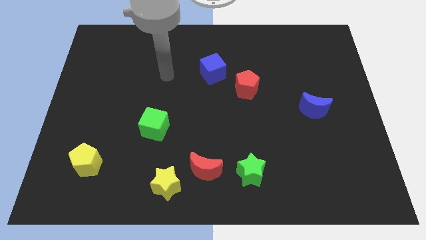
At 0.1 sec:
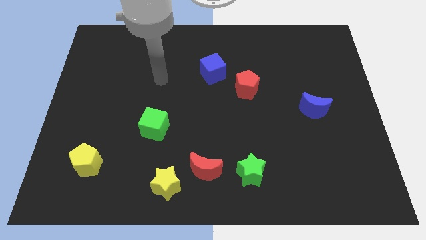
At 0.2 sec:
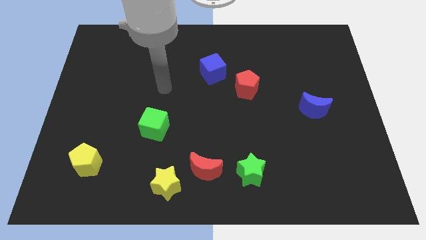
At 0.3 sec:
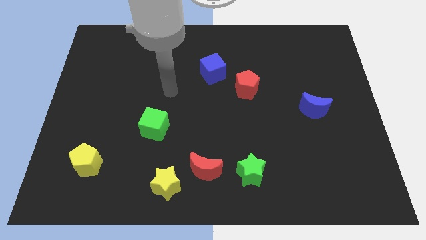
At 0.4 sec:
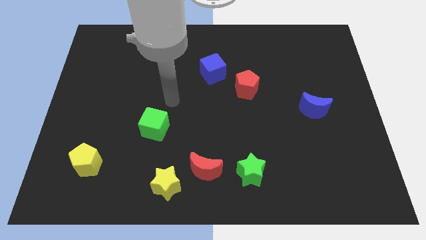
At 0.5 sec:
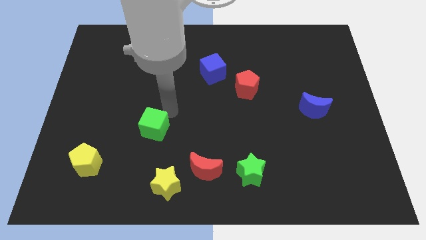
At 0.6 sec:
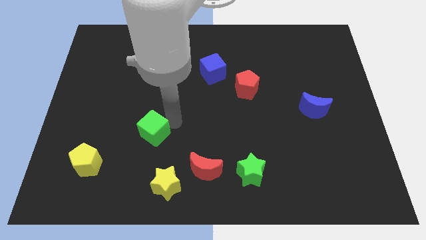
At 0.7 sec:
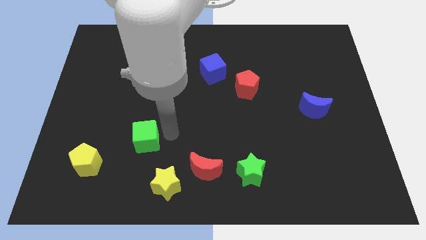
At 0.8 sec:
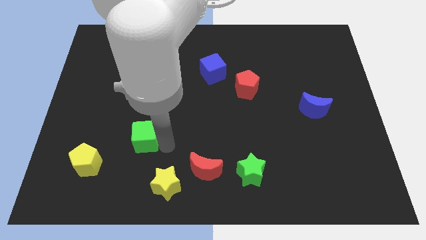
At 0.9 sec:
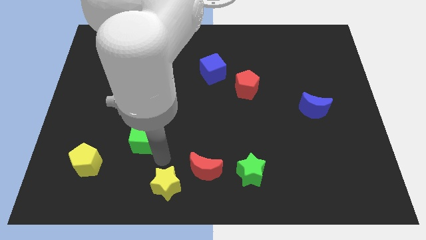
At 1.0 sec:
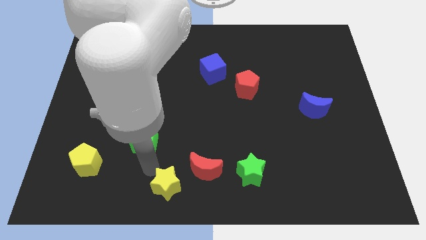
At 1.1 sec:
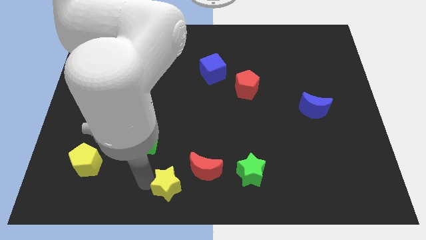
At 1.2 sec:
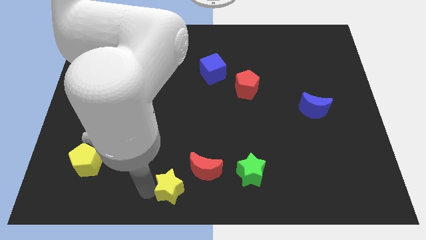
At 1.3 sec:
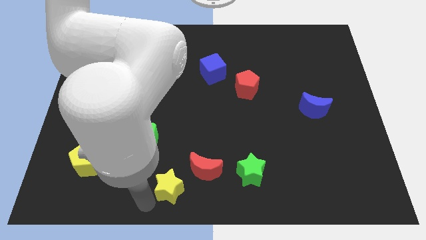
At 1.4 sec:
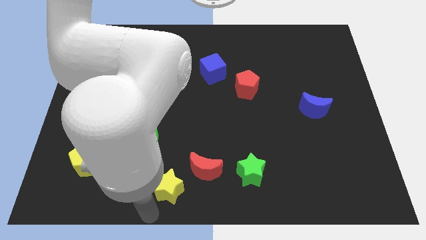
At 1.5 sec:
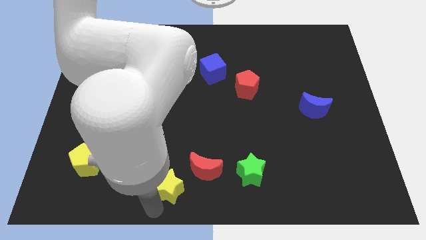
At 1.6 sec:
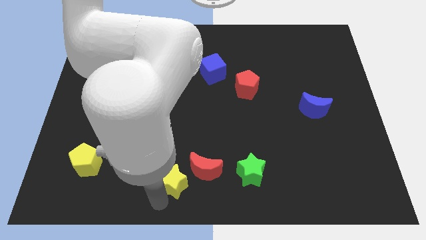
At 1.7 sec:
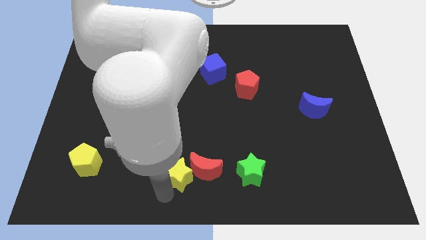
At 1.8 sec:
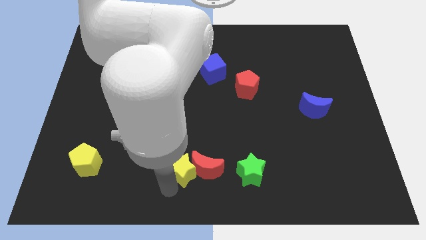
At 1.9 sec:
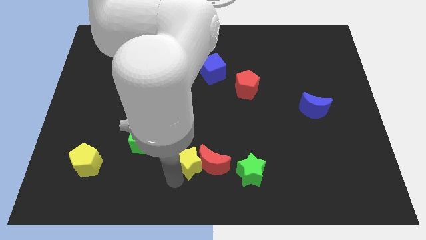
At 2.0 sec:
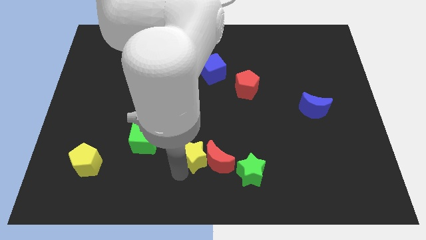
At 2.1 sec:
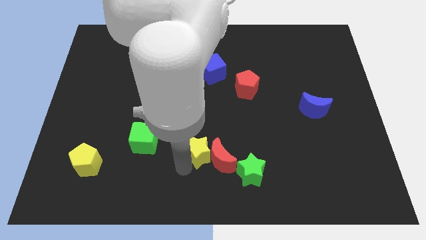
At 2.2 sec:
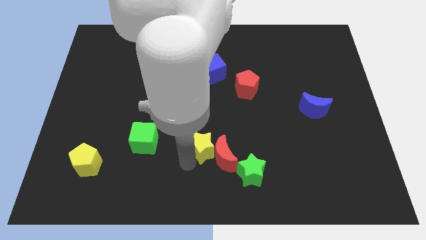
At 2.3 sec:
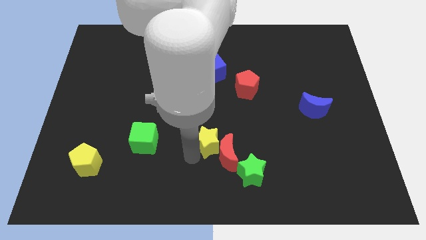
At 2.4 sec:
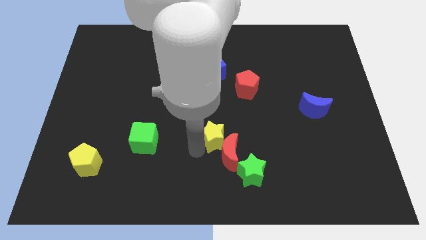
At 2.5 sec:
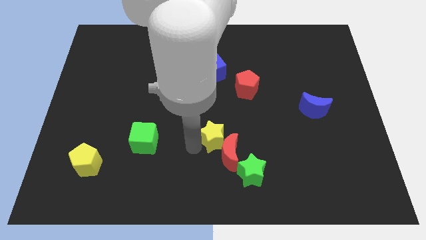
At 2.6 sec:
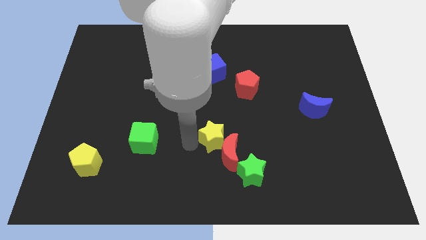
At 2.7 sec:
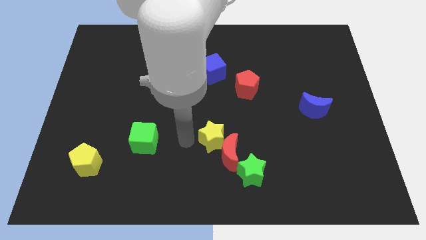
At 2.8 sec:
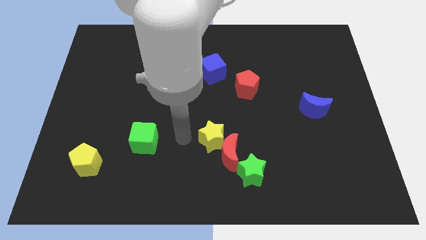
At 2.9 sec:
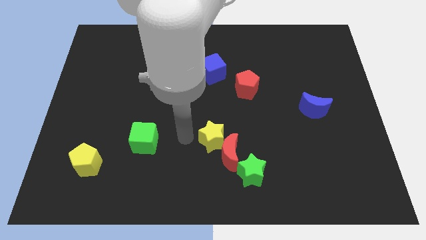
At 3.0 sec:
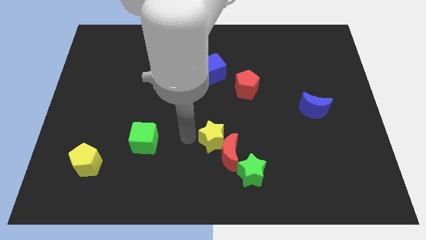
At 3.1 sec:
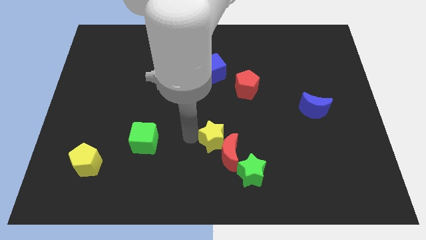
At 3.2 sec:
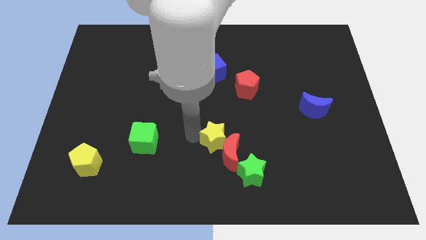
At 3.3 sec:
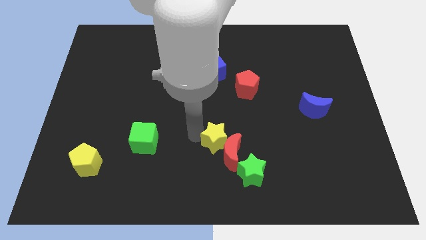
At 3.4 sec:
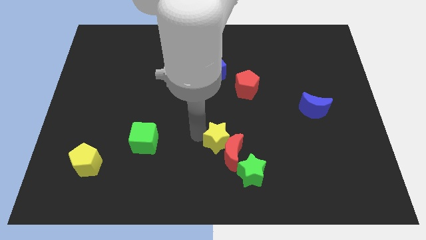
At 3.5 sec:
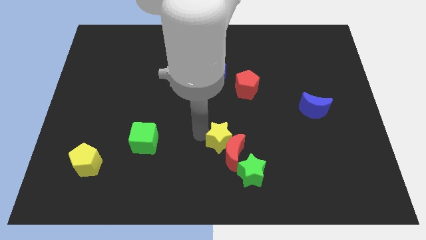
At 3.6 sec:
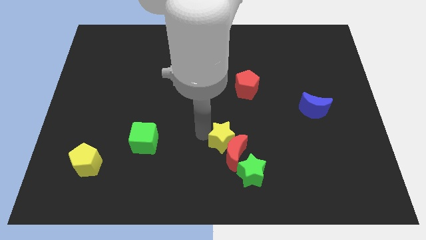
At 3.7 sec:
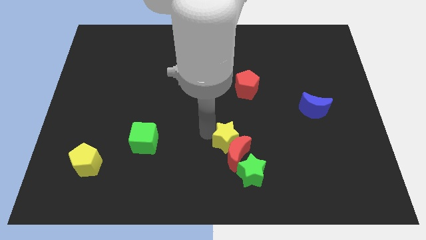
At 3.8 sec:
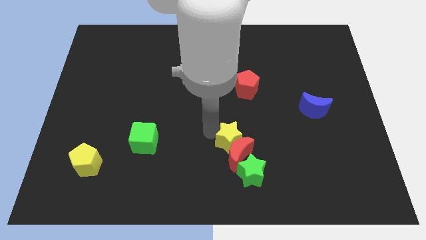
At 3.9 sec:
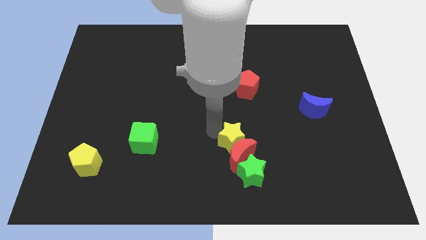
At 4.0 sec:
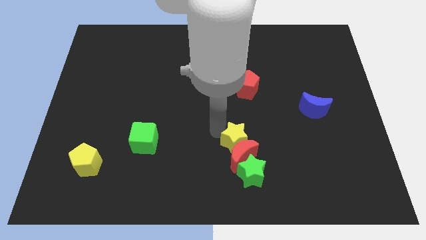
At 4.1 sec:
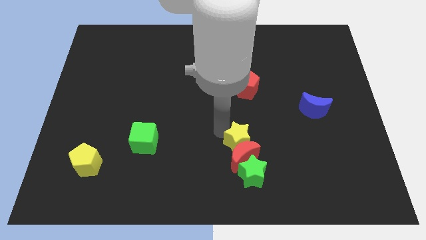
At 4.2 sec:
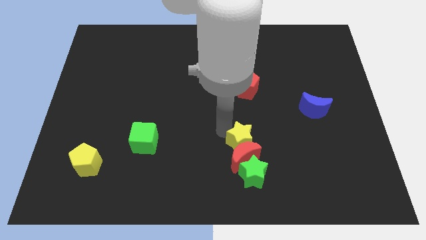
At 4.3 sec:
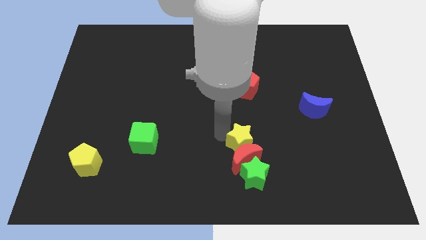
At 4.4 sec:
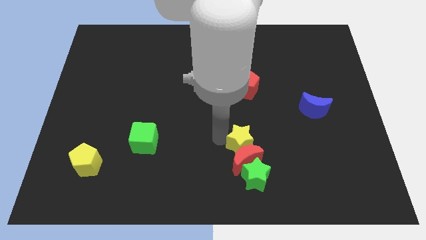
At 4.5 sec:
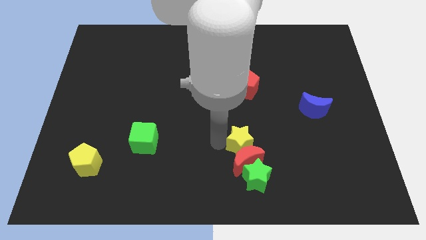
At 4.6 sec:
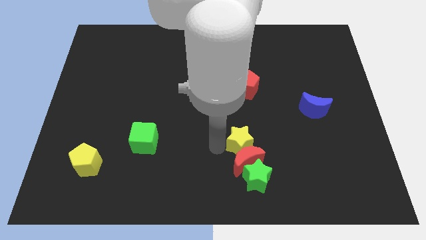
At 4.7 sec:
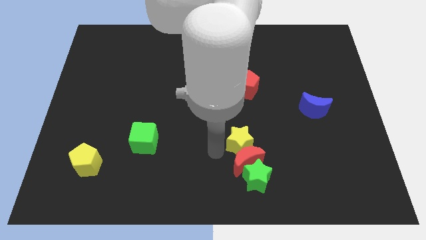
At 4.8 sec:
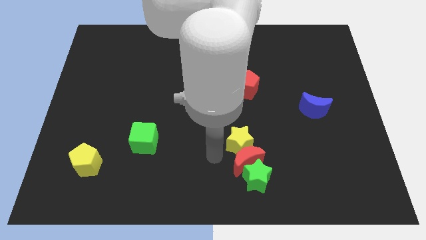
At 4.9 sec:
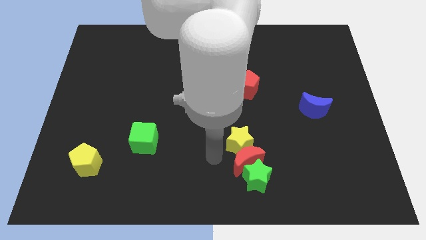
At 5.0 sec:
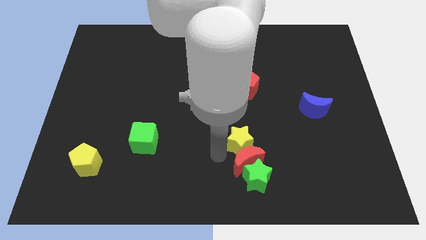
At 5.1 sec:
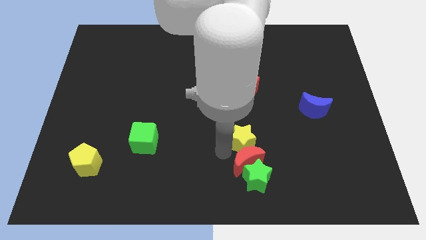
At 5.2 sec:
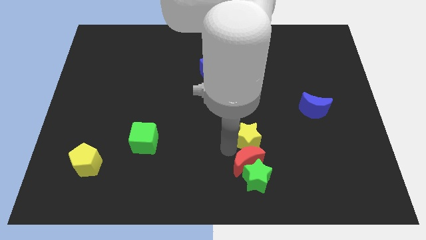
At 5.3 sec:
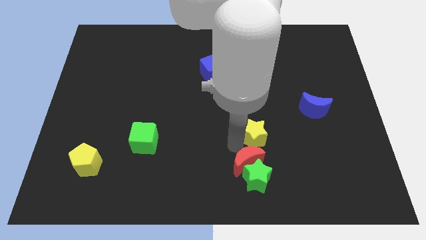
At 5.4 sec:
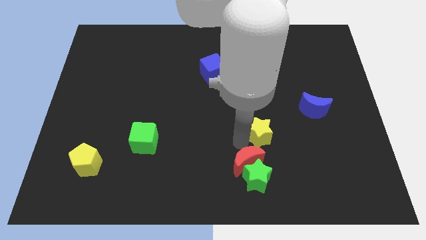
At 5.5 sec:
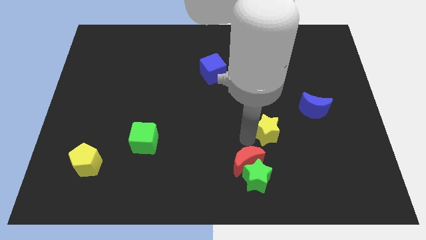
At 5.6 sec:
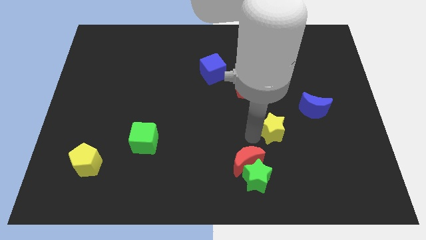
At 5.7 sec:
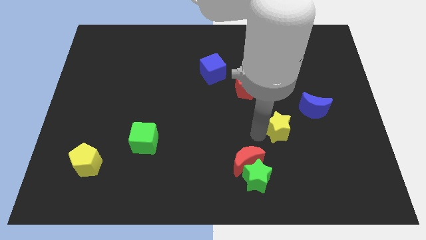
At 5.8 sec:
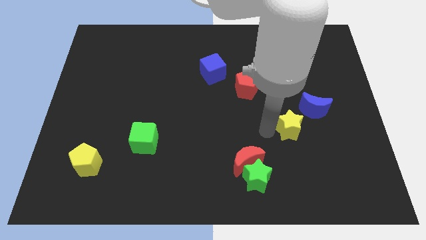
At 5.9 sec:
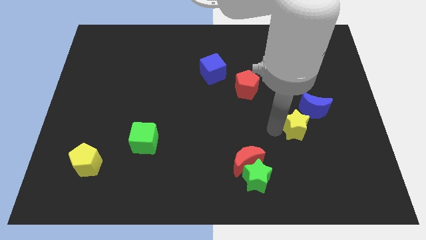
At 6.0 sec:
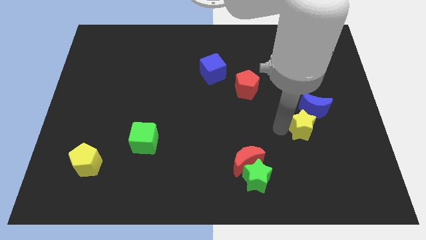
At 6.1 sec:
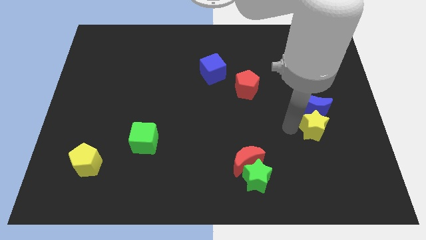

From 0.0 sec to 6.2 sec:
push the yellow star diagonally down and to the right of the blue moon

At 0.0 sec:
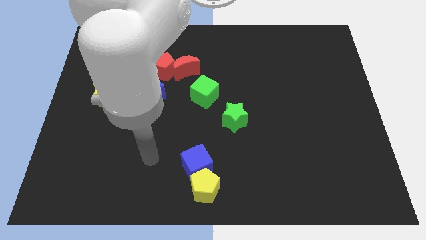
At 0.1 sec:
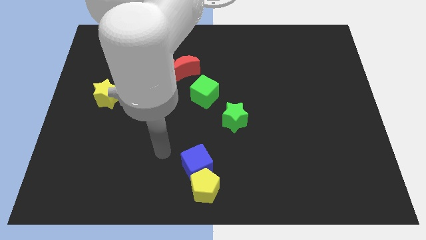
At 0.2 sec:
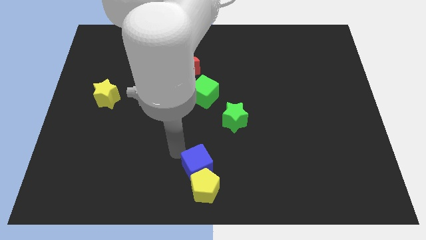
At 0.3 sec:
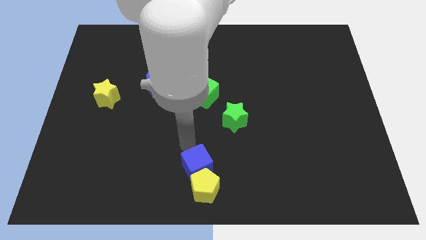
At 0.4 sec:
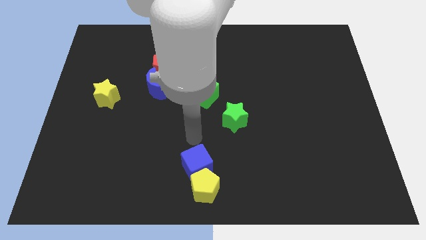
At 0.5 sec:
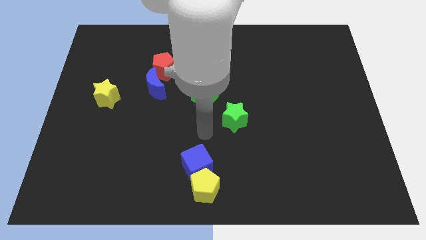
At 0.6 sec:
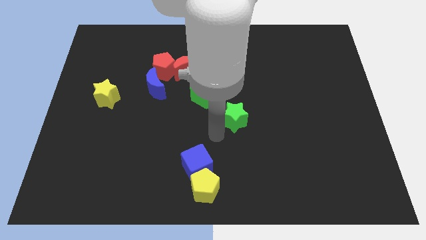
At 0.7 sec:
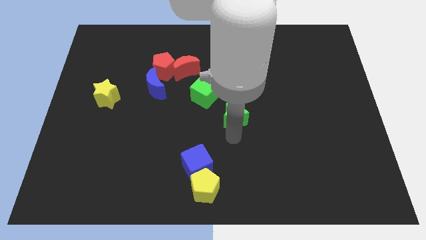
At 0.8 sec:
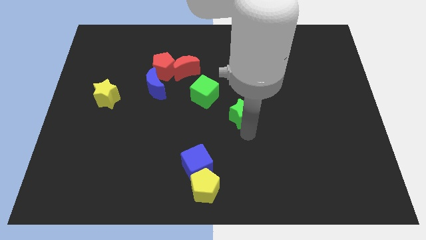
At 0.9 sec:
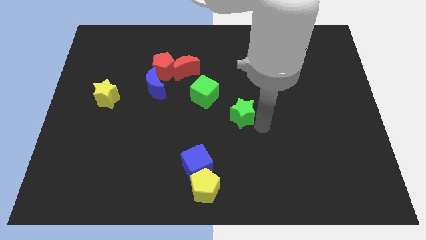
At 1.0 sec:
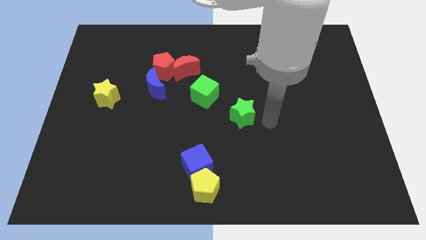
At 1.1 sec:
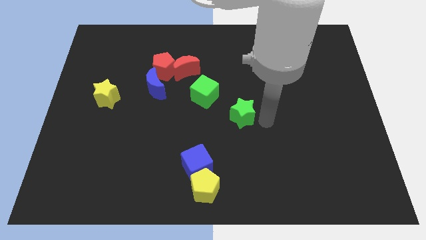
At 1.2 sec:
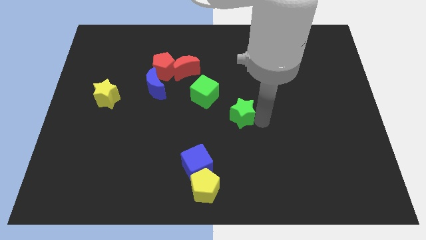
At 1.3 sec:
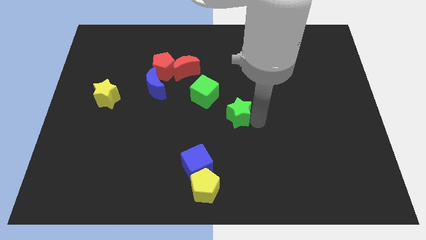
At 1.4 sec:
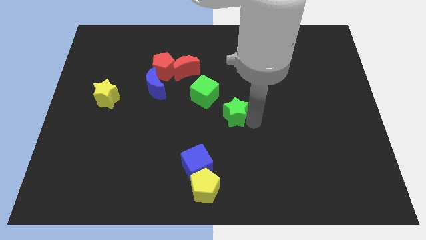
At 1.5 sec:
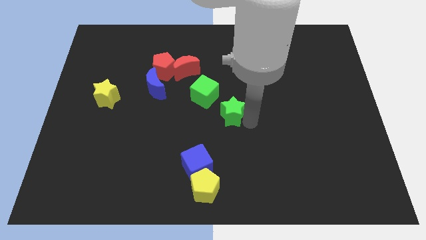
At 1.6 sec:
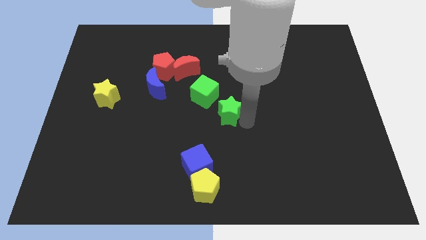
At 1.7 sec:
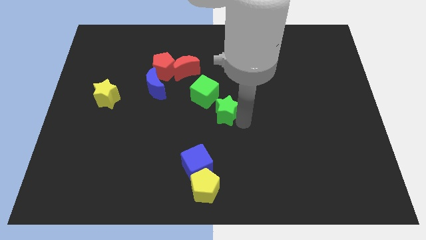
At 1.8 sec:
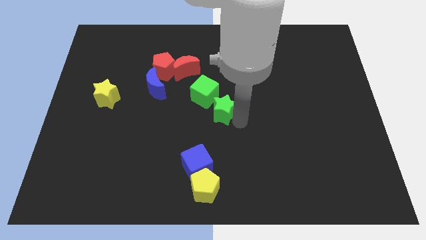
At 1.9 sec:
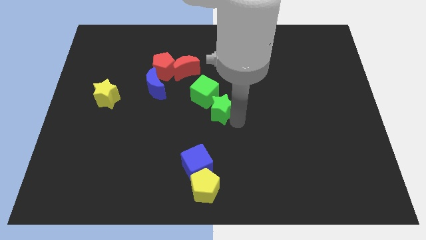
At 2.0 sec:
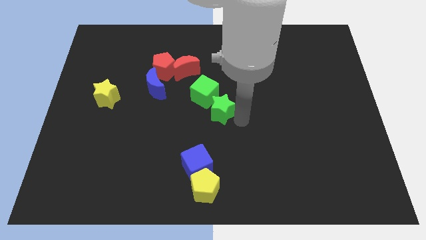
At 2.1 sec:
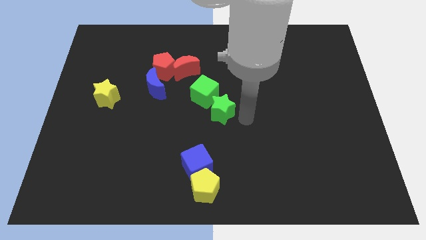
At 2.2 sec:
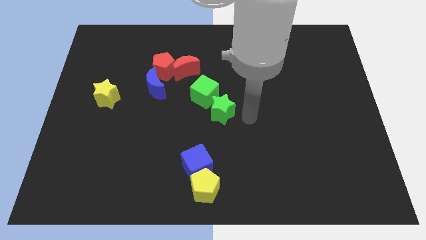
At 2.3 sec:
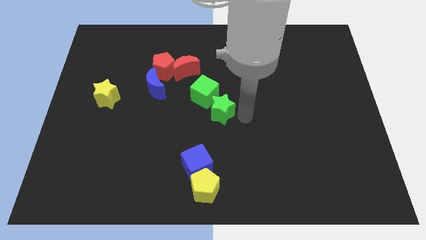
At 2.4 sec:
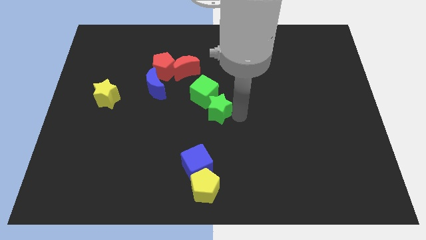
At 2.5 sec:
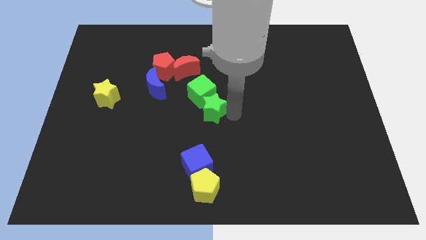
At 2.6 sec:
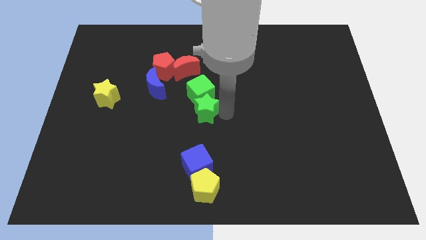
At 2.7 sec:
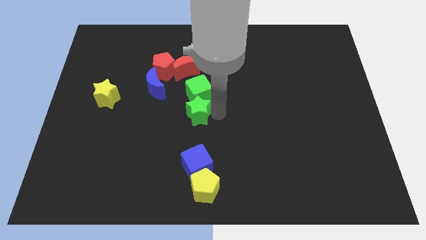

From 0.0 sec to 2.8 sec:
push the green star to the bottom of the red moon
